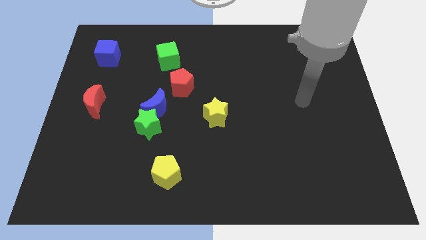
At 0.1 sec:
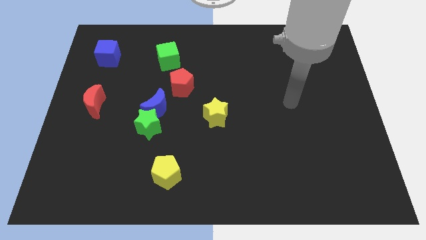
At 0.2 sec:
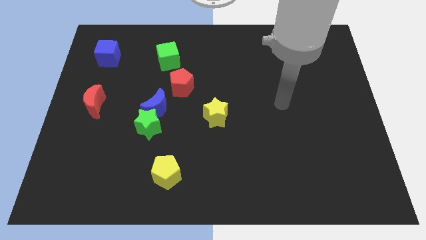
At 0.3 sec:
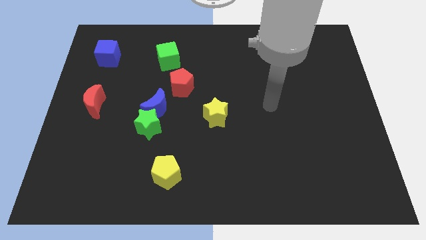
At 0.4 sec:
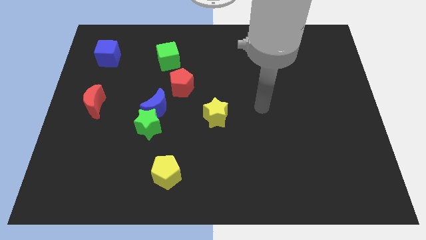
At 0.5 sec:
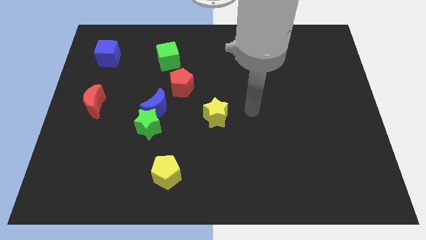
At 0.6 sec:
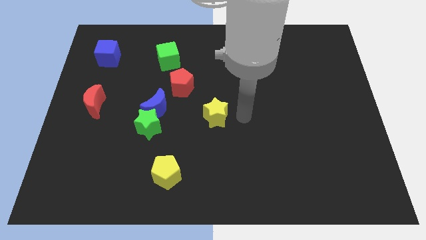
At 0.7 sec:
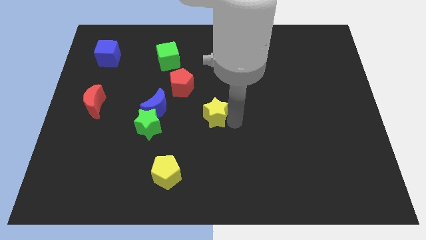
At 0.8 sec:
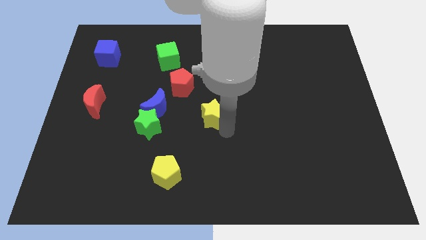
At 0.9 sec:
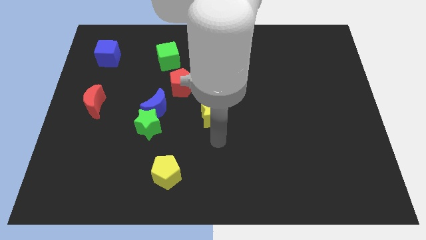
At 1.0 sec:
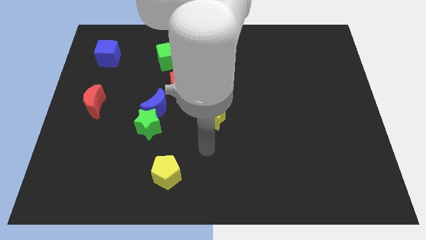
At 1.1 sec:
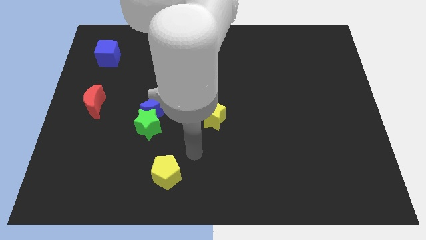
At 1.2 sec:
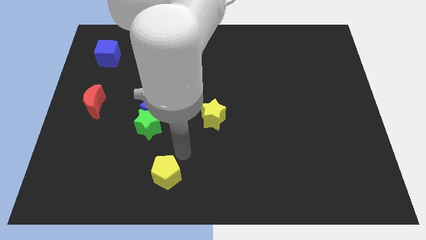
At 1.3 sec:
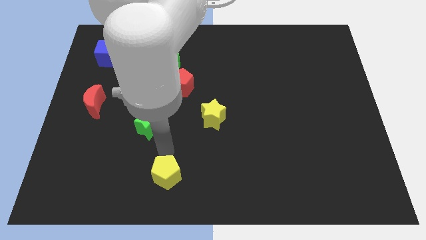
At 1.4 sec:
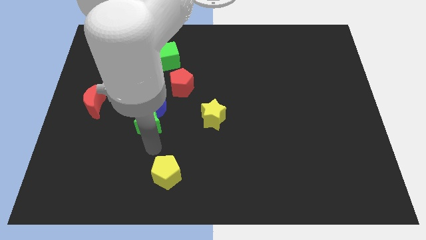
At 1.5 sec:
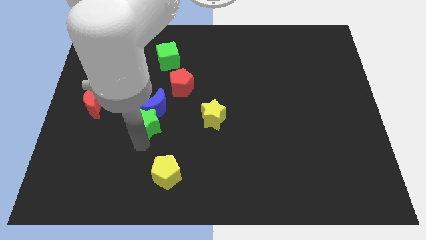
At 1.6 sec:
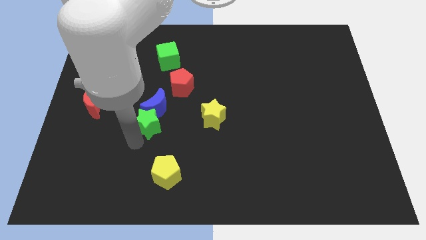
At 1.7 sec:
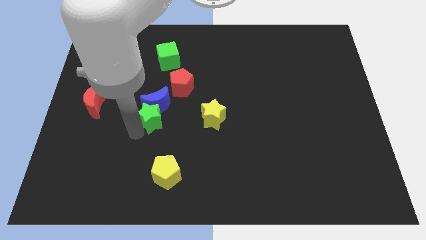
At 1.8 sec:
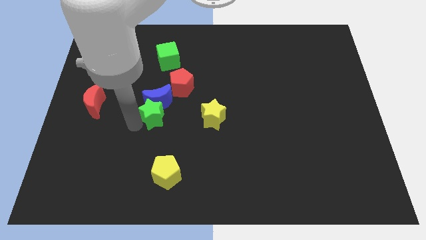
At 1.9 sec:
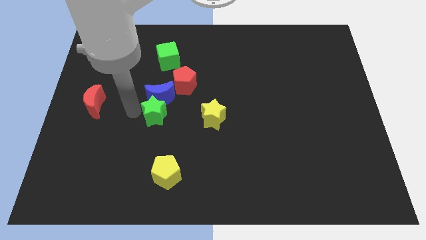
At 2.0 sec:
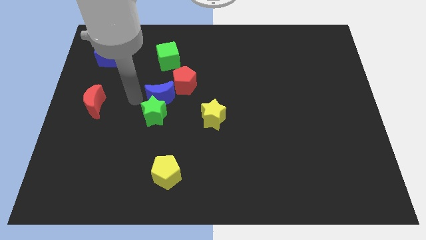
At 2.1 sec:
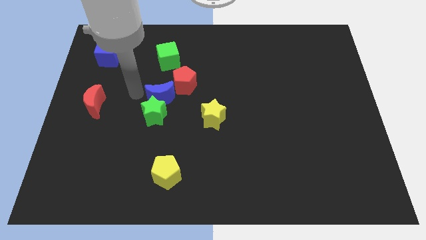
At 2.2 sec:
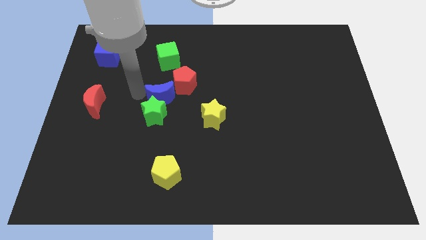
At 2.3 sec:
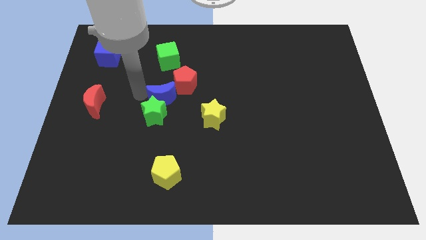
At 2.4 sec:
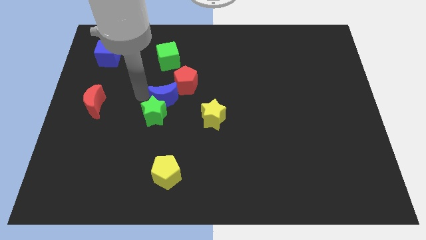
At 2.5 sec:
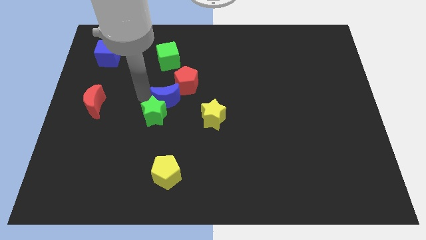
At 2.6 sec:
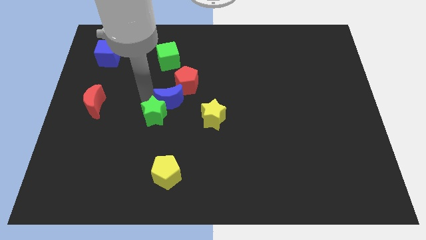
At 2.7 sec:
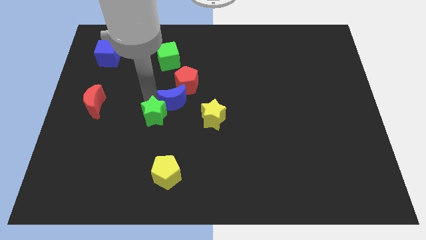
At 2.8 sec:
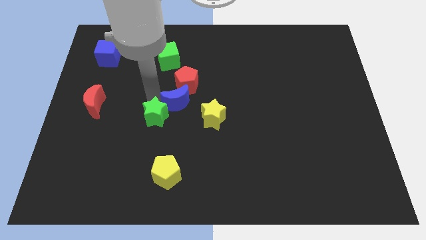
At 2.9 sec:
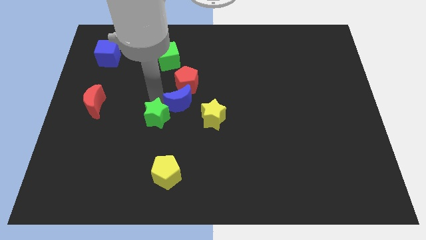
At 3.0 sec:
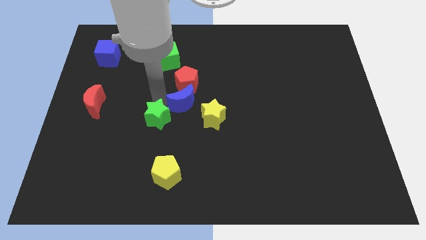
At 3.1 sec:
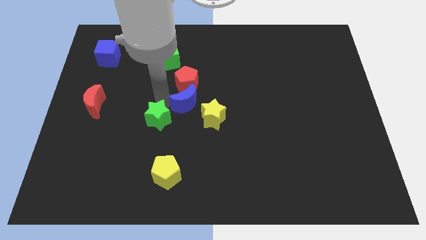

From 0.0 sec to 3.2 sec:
slide the blue moon a little to the right

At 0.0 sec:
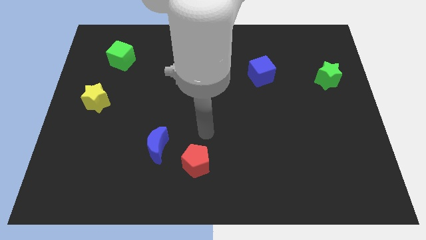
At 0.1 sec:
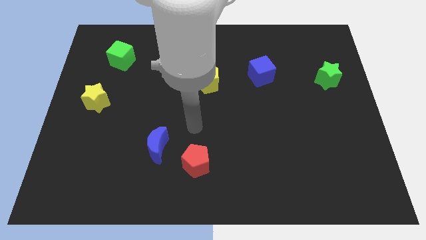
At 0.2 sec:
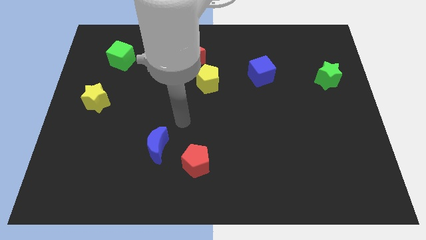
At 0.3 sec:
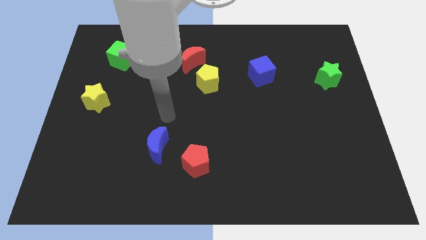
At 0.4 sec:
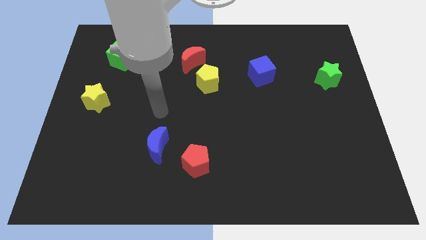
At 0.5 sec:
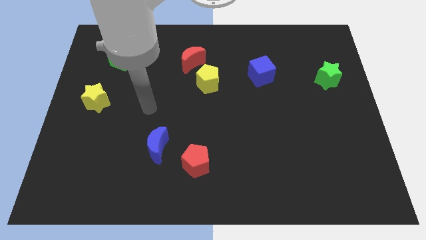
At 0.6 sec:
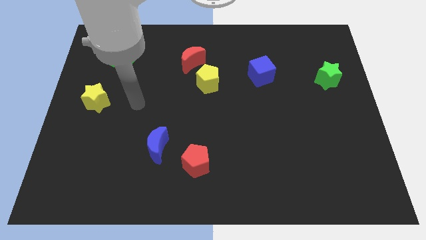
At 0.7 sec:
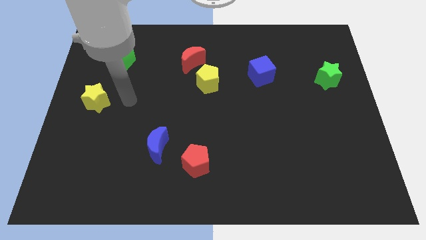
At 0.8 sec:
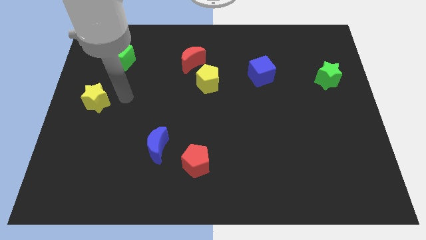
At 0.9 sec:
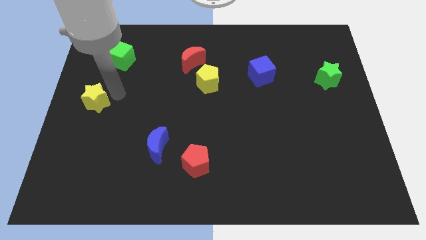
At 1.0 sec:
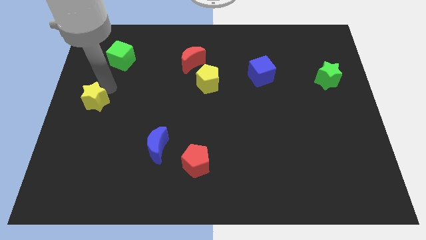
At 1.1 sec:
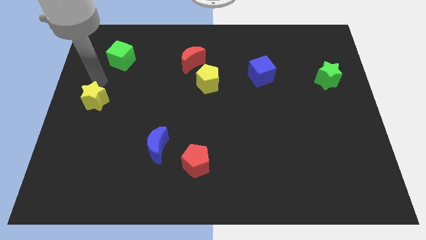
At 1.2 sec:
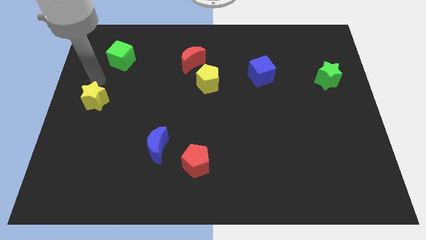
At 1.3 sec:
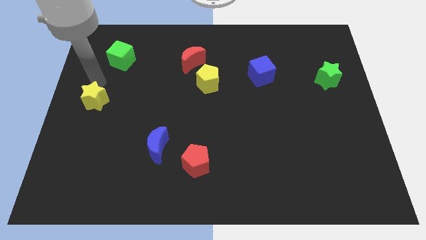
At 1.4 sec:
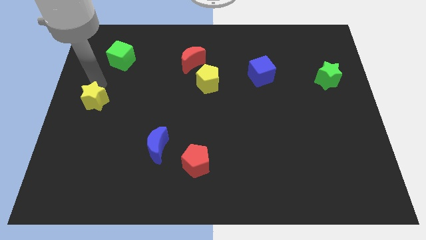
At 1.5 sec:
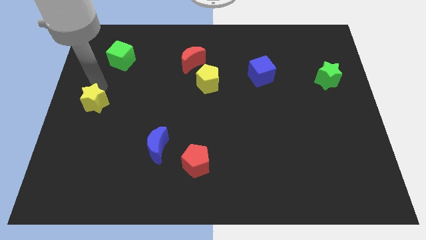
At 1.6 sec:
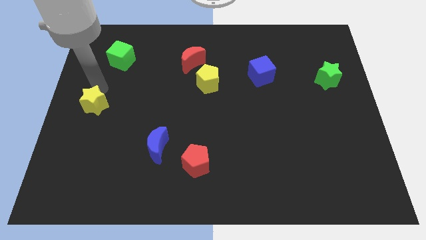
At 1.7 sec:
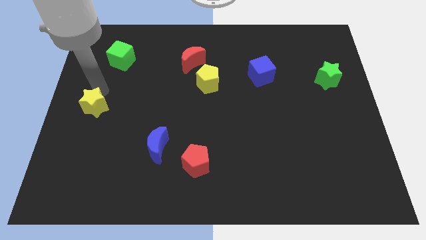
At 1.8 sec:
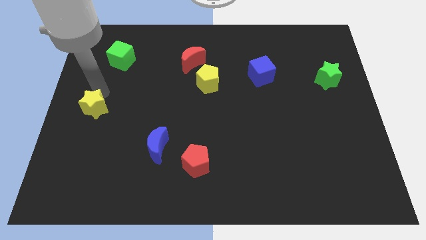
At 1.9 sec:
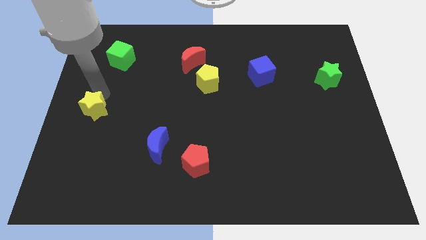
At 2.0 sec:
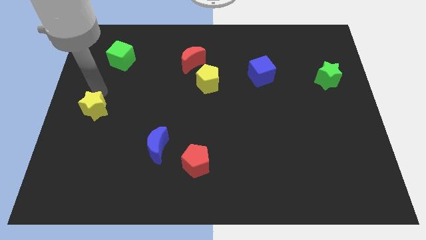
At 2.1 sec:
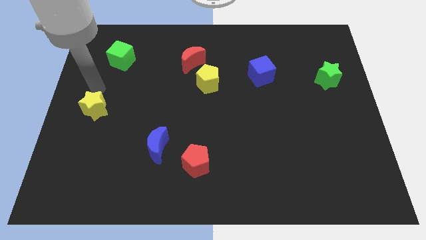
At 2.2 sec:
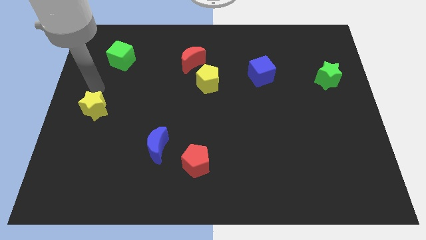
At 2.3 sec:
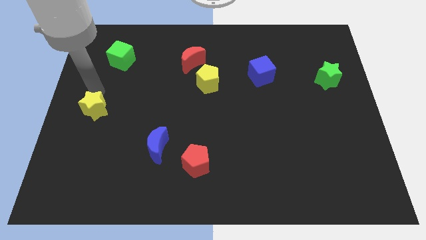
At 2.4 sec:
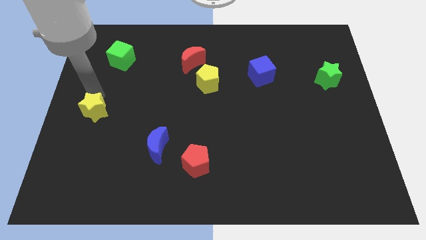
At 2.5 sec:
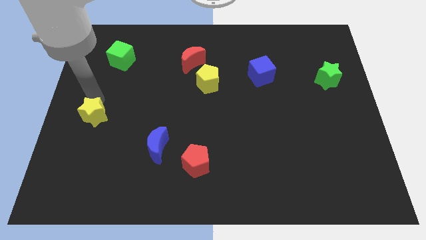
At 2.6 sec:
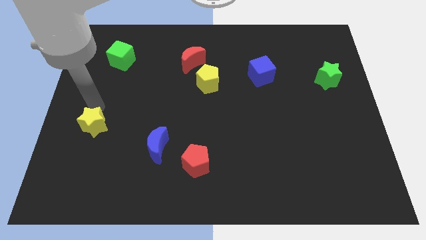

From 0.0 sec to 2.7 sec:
slightly slide the yellow star down

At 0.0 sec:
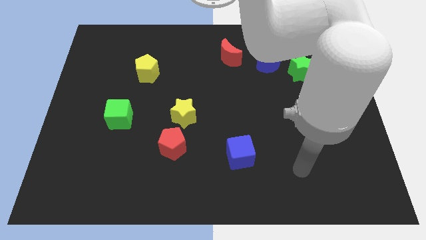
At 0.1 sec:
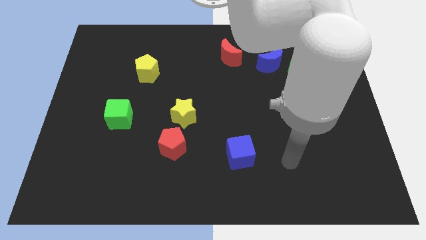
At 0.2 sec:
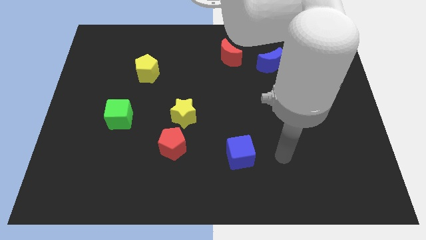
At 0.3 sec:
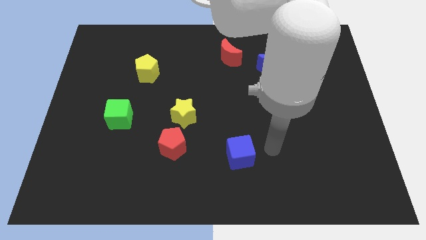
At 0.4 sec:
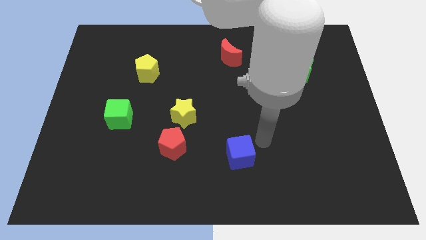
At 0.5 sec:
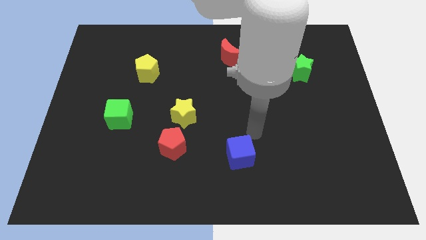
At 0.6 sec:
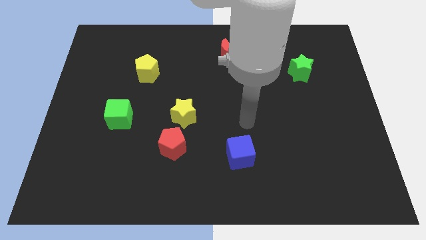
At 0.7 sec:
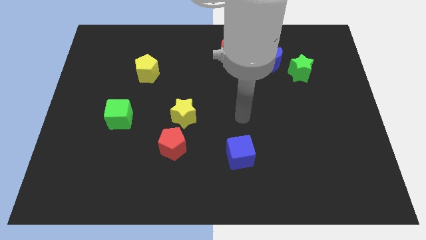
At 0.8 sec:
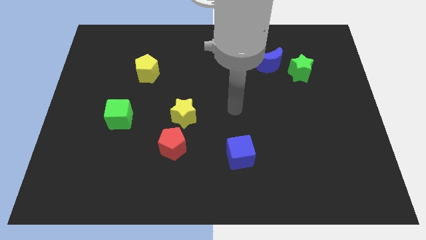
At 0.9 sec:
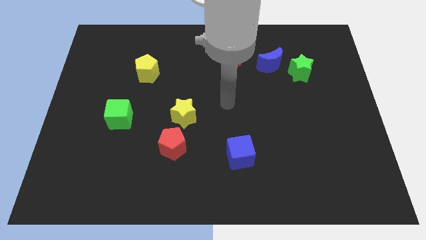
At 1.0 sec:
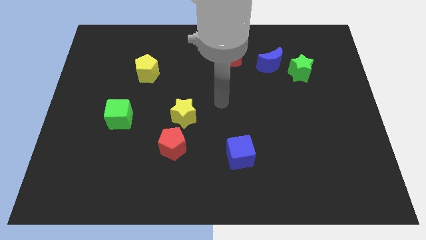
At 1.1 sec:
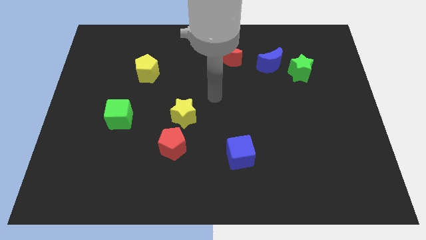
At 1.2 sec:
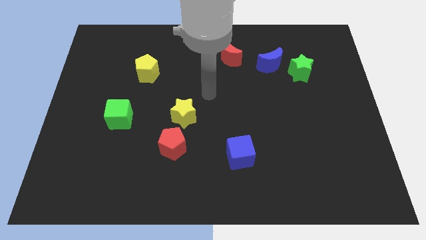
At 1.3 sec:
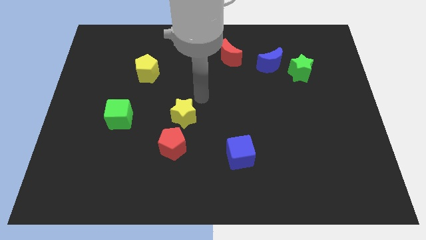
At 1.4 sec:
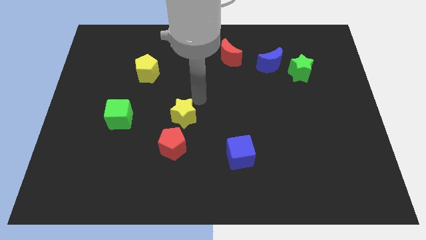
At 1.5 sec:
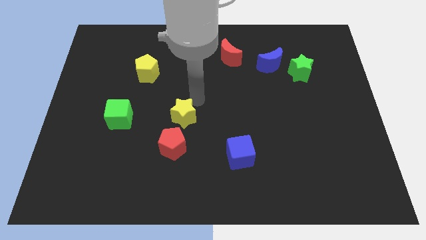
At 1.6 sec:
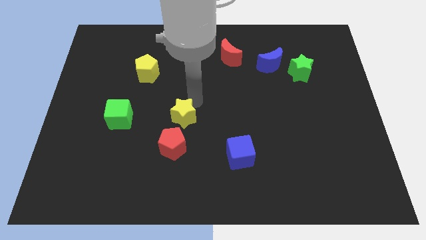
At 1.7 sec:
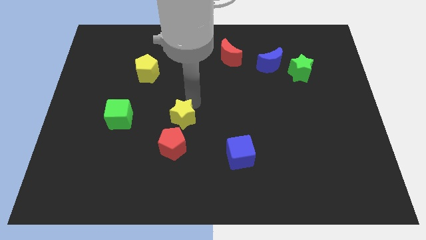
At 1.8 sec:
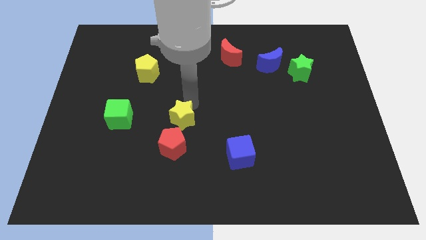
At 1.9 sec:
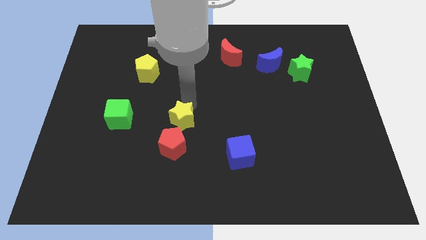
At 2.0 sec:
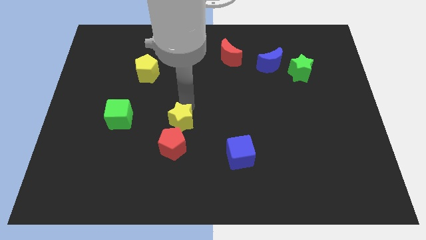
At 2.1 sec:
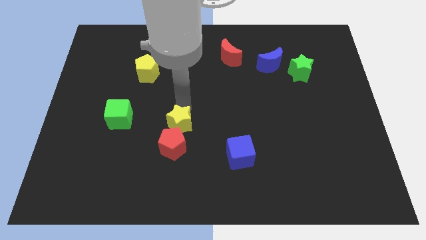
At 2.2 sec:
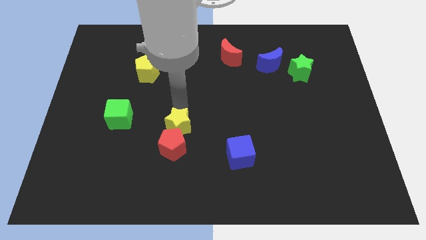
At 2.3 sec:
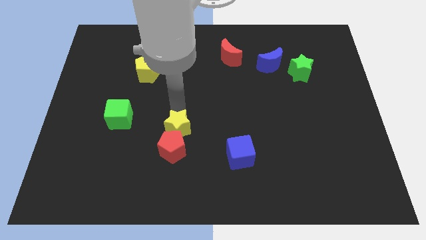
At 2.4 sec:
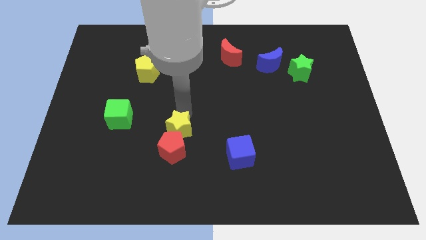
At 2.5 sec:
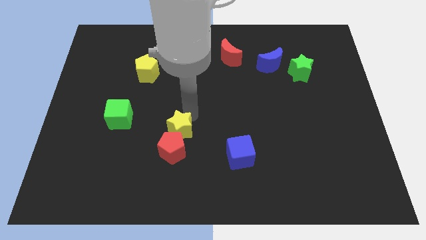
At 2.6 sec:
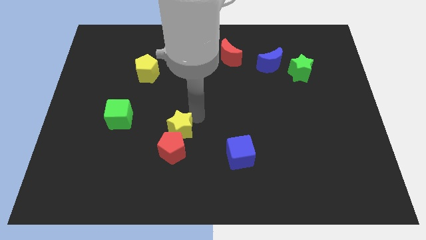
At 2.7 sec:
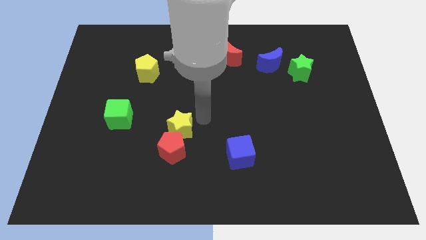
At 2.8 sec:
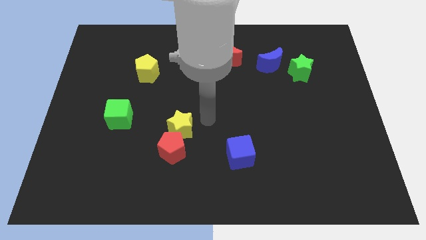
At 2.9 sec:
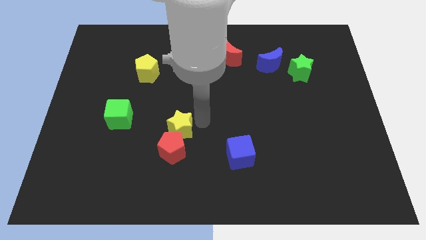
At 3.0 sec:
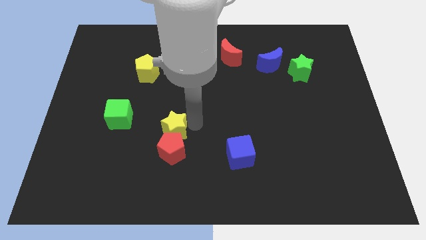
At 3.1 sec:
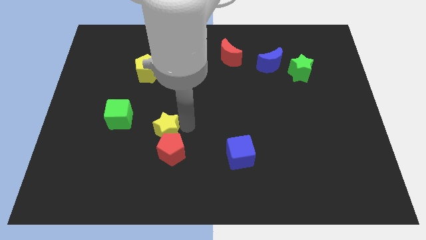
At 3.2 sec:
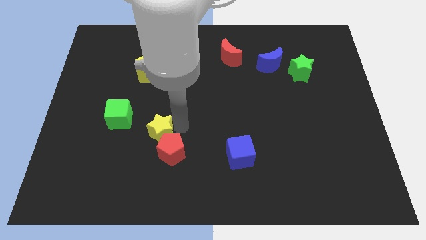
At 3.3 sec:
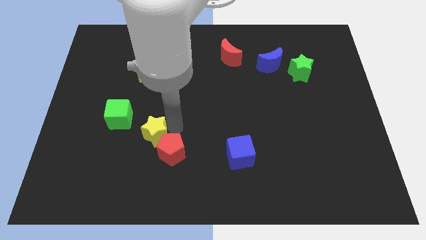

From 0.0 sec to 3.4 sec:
slightly push the yellow star diagonally down and left
